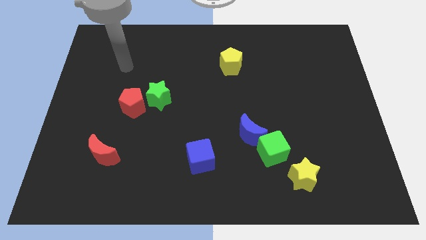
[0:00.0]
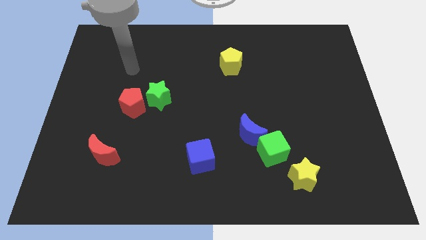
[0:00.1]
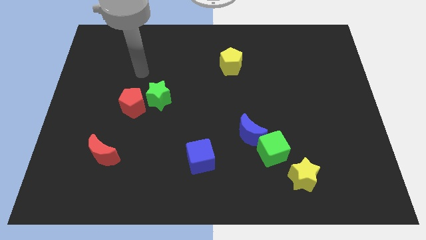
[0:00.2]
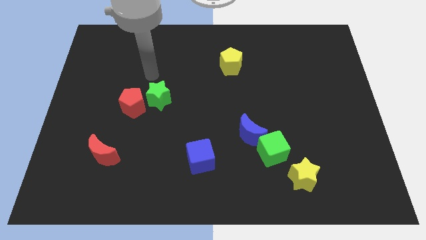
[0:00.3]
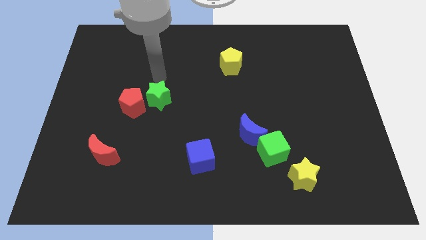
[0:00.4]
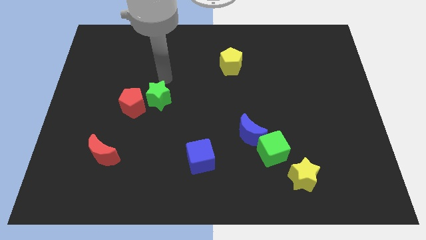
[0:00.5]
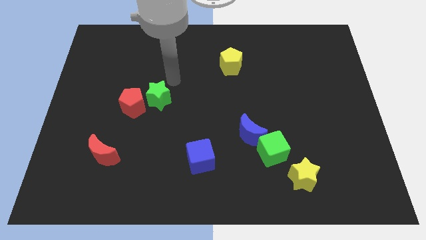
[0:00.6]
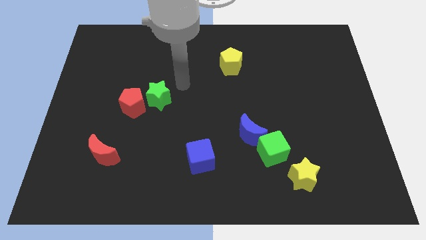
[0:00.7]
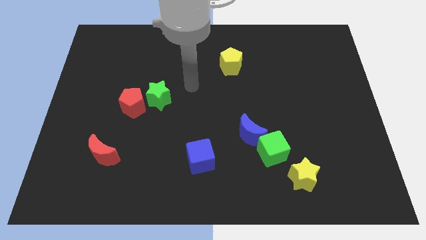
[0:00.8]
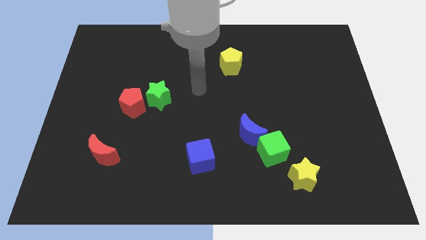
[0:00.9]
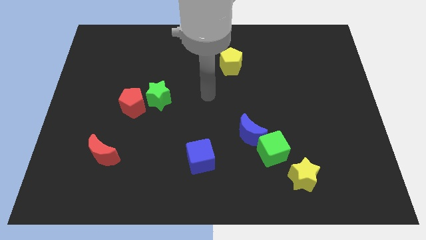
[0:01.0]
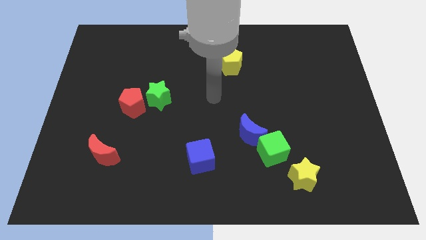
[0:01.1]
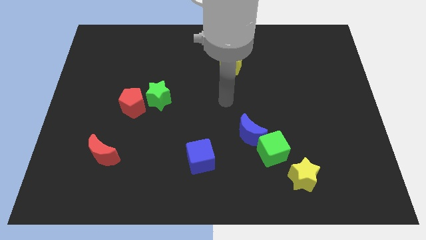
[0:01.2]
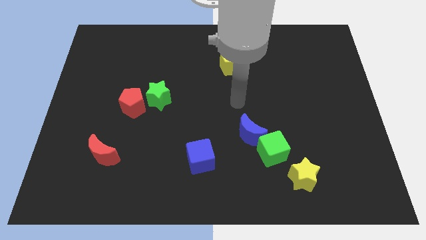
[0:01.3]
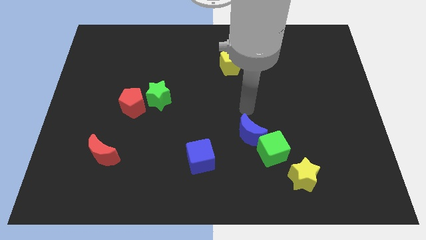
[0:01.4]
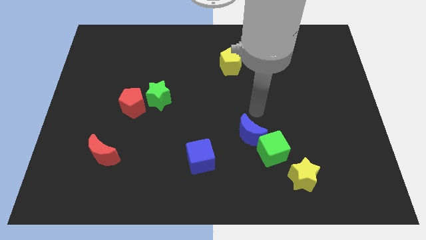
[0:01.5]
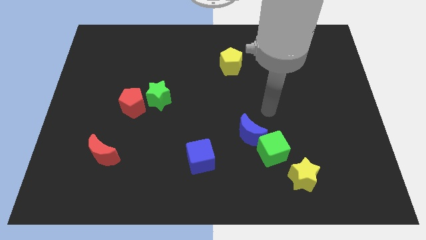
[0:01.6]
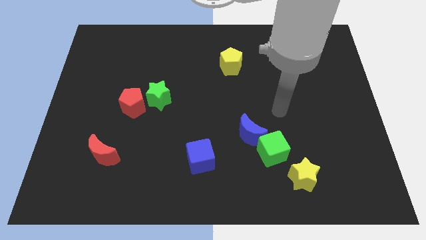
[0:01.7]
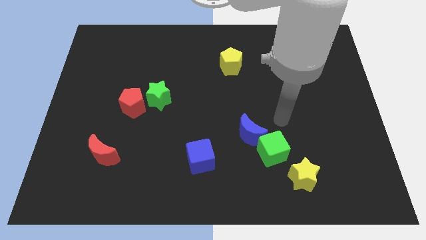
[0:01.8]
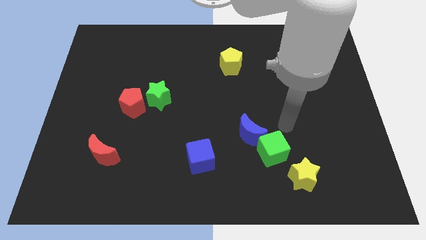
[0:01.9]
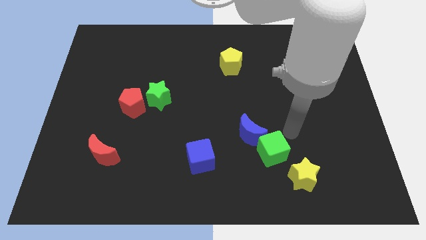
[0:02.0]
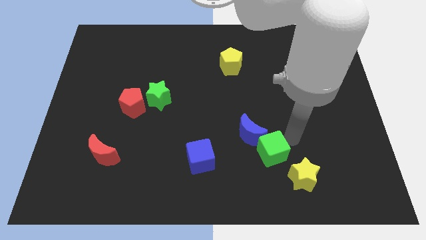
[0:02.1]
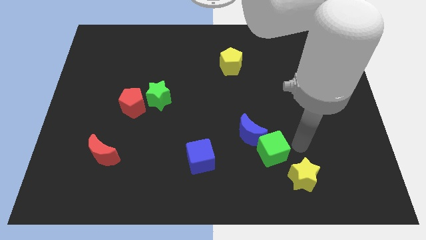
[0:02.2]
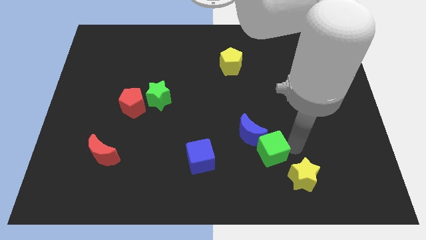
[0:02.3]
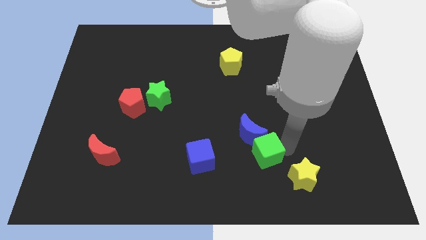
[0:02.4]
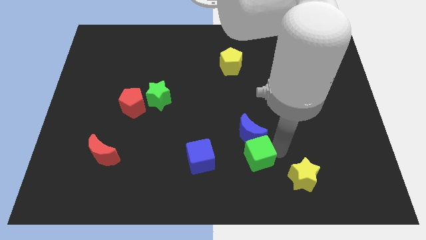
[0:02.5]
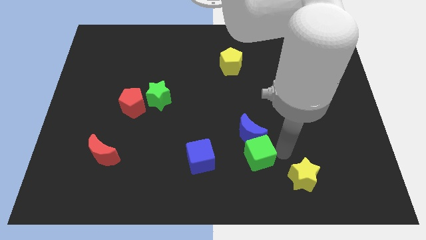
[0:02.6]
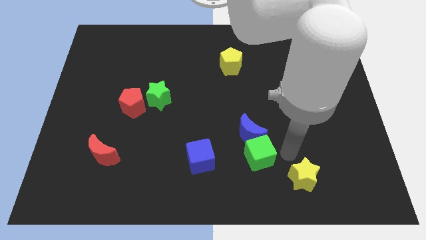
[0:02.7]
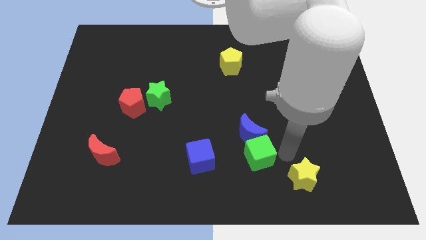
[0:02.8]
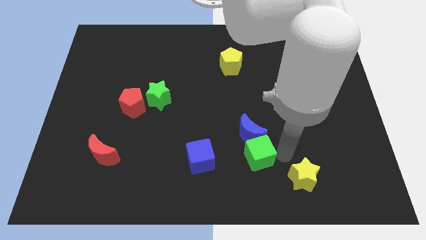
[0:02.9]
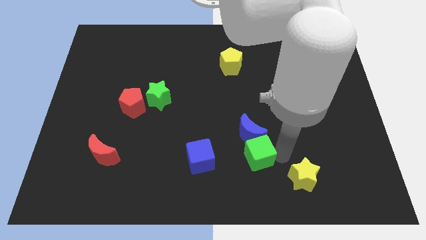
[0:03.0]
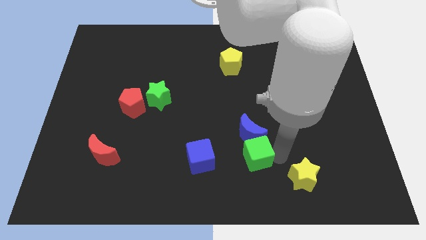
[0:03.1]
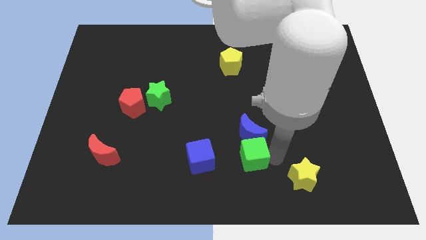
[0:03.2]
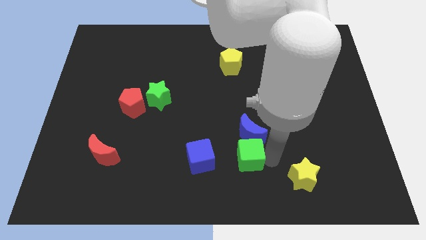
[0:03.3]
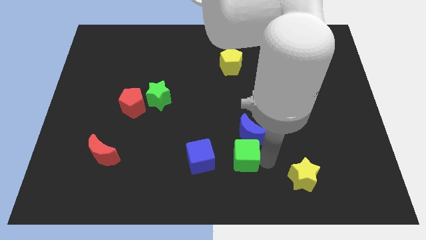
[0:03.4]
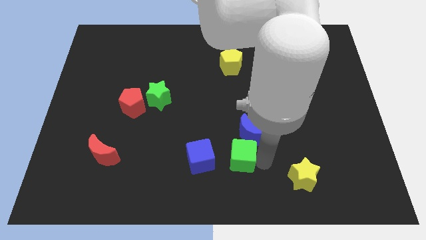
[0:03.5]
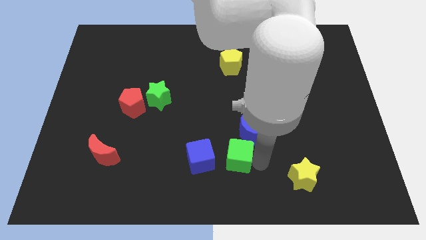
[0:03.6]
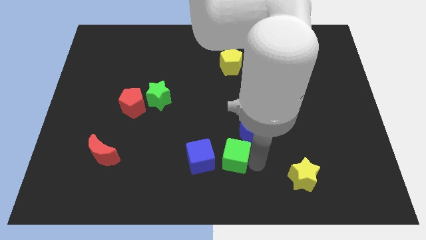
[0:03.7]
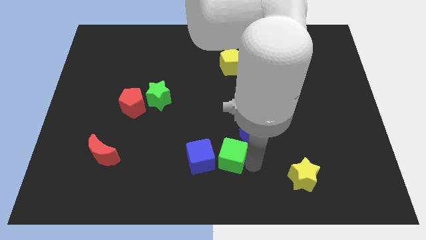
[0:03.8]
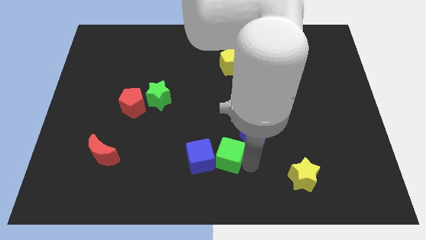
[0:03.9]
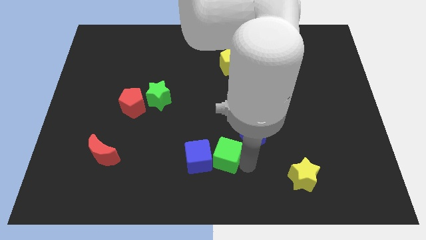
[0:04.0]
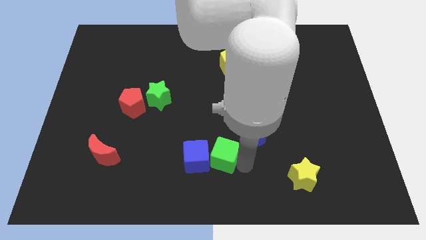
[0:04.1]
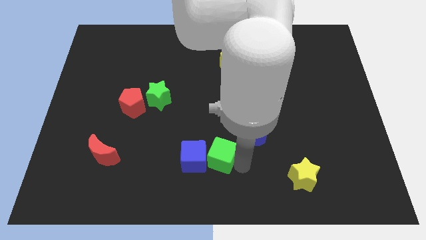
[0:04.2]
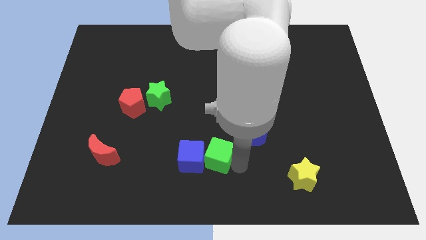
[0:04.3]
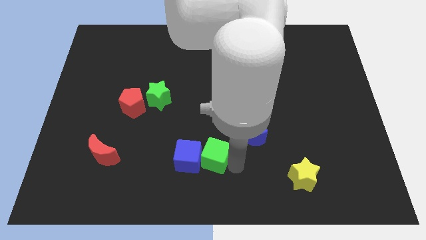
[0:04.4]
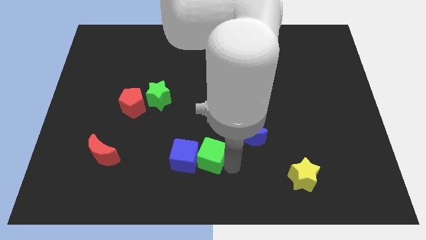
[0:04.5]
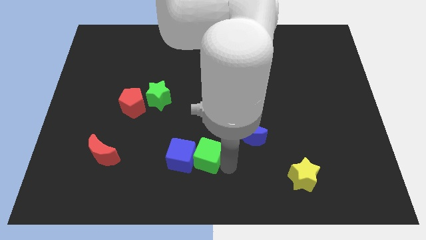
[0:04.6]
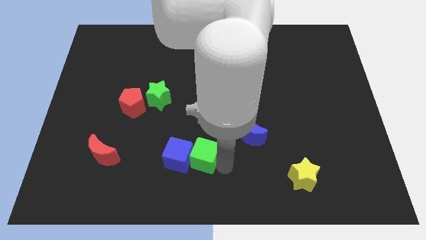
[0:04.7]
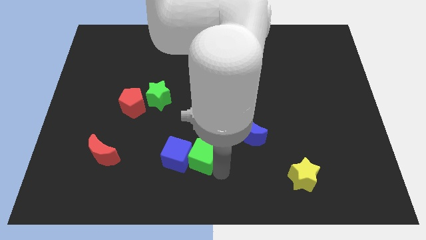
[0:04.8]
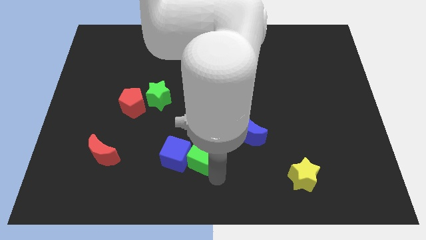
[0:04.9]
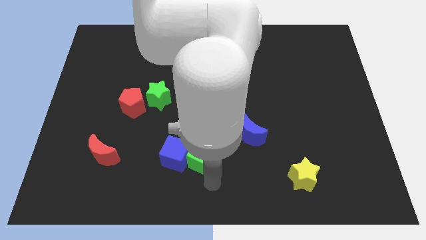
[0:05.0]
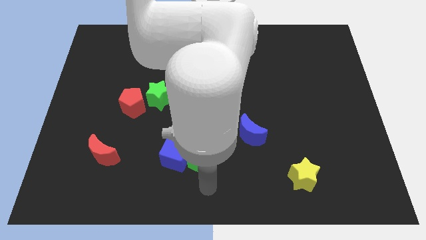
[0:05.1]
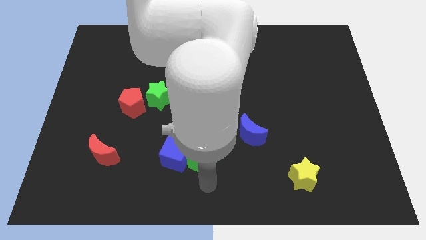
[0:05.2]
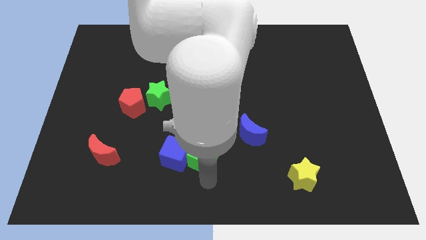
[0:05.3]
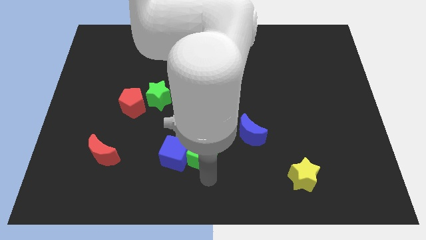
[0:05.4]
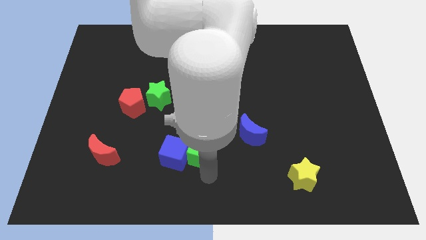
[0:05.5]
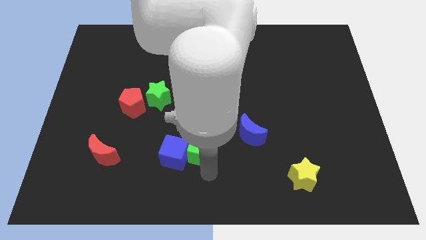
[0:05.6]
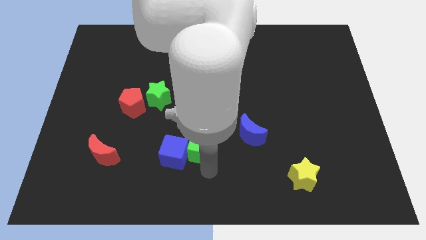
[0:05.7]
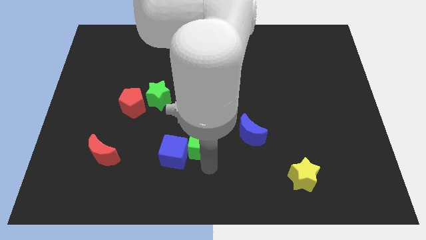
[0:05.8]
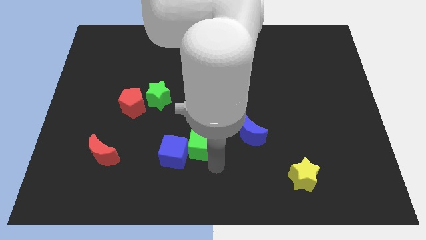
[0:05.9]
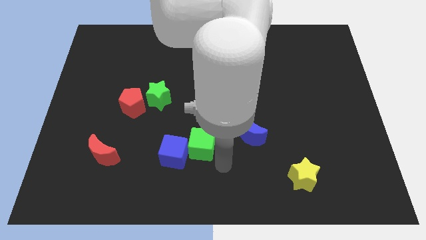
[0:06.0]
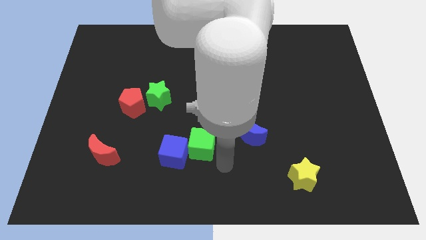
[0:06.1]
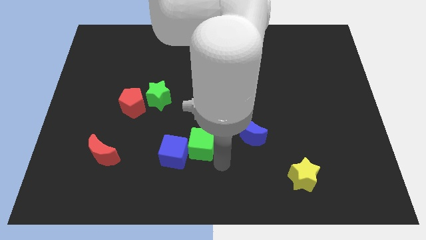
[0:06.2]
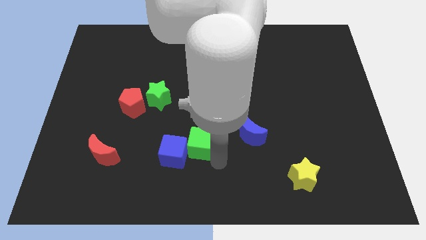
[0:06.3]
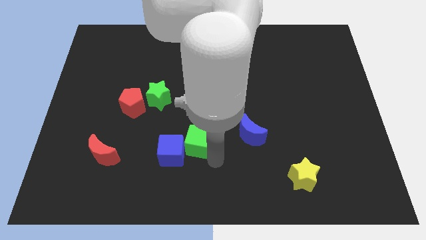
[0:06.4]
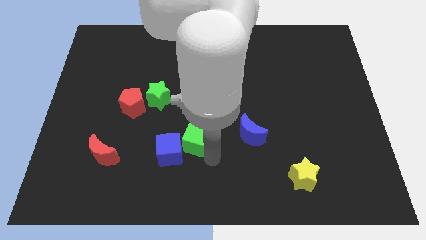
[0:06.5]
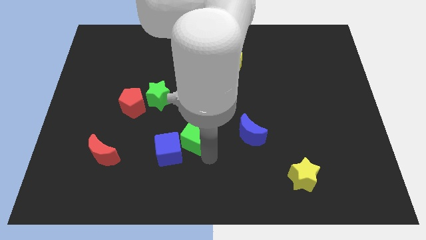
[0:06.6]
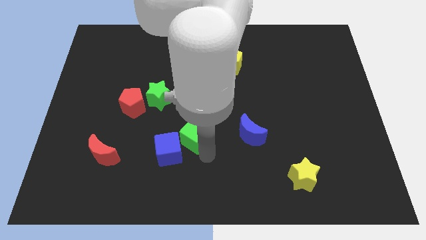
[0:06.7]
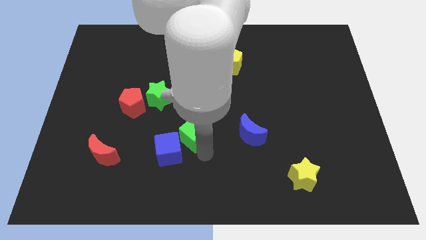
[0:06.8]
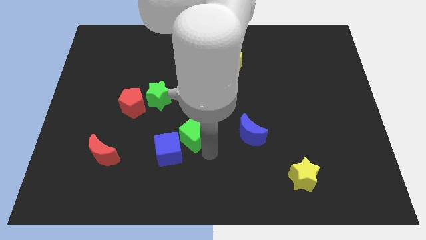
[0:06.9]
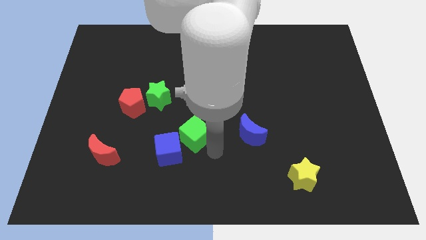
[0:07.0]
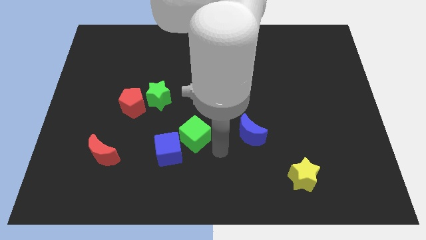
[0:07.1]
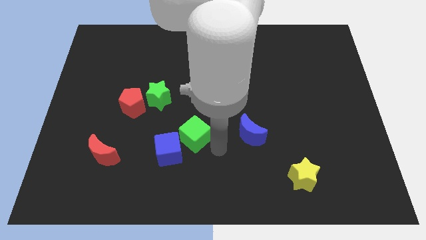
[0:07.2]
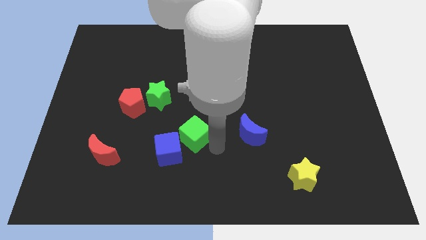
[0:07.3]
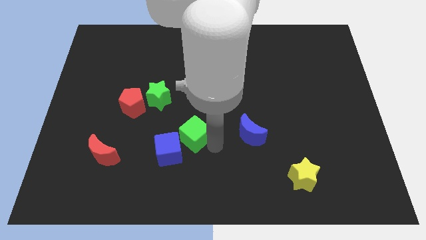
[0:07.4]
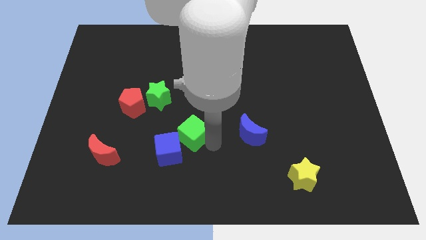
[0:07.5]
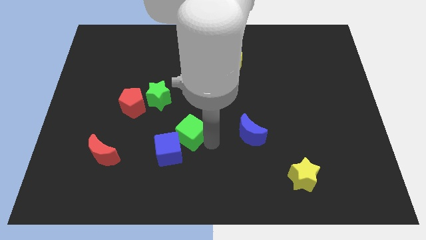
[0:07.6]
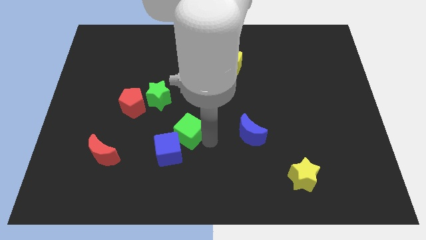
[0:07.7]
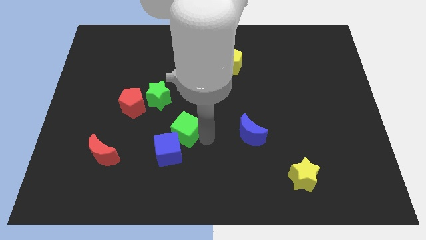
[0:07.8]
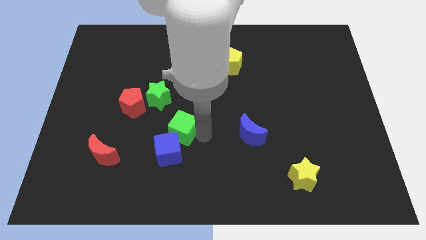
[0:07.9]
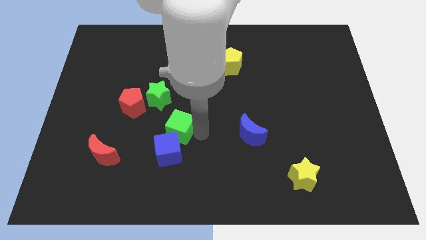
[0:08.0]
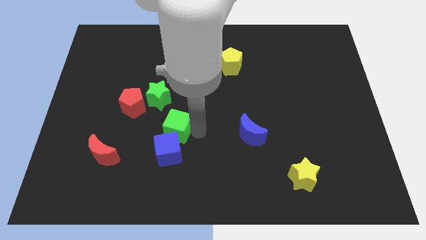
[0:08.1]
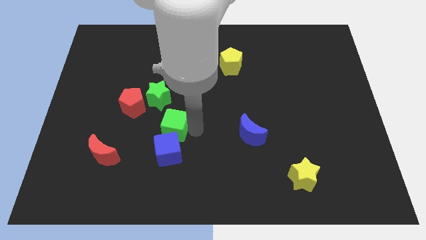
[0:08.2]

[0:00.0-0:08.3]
push the green cube diagonally down and to the right of the red pentagon
